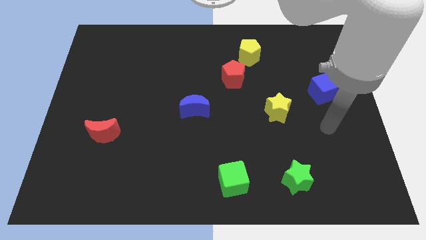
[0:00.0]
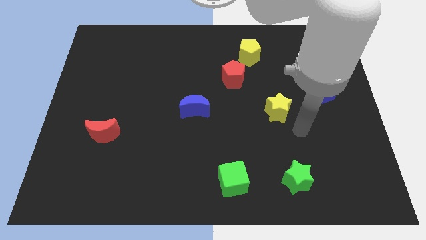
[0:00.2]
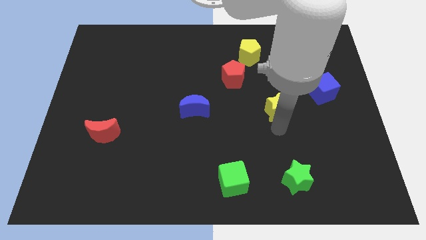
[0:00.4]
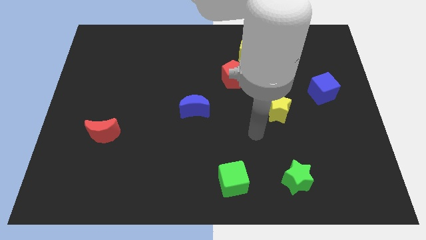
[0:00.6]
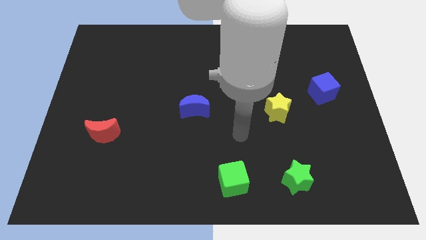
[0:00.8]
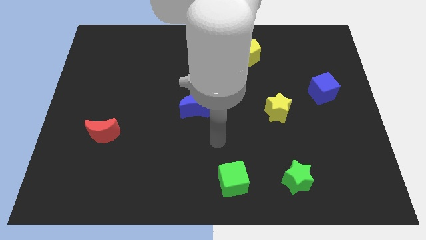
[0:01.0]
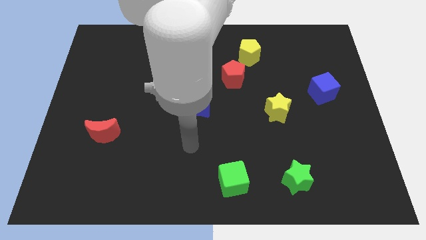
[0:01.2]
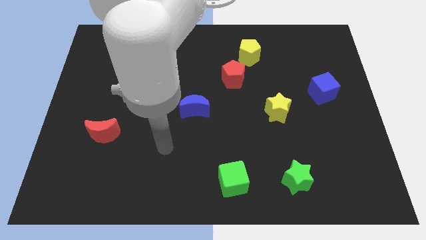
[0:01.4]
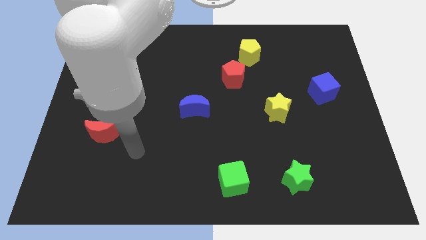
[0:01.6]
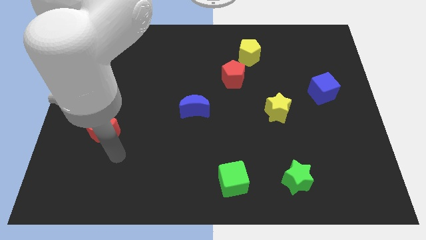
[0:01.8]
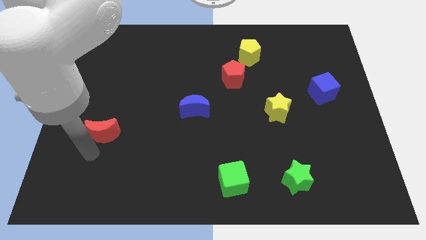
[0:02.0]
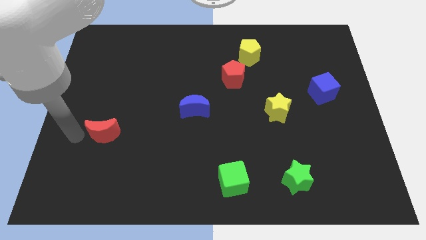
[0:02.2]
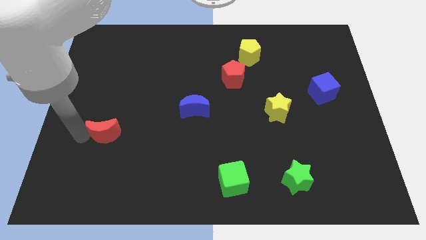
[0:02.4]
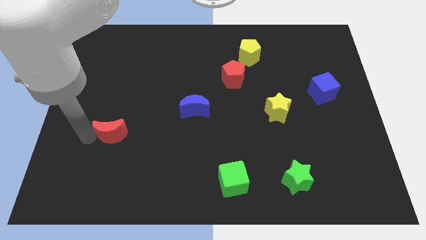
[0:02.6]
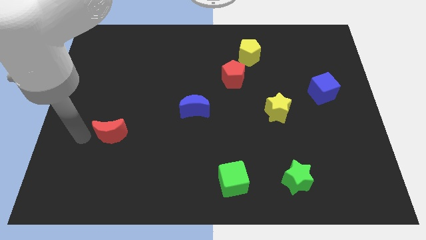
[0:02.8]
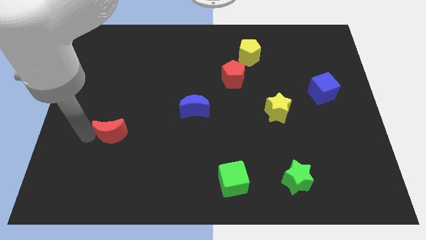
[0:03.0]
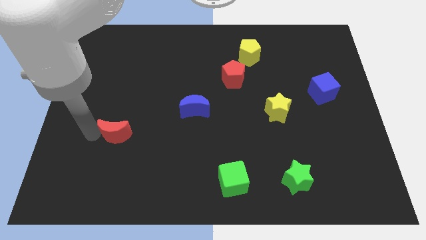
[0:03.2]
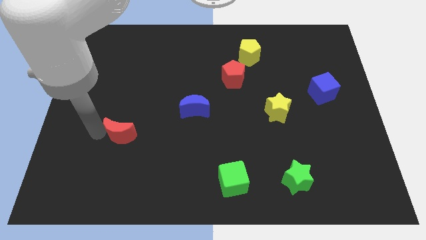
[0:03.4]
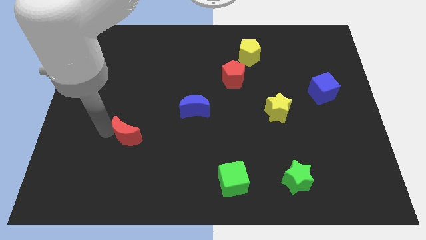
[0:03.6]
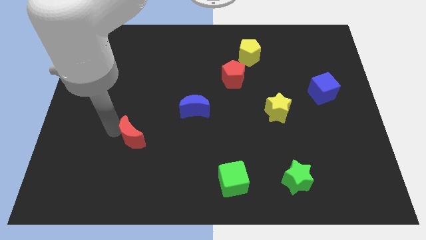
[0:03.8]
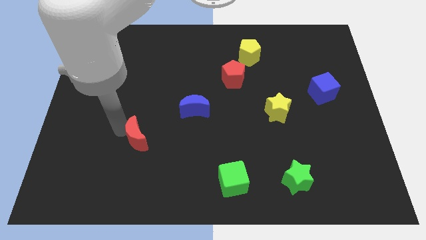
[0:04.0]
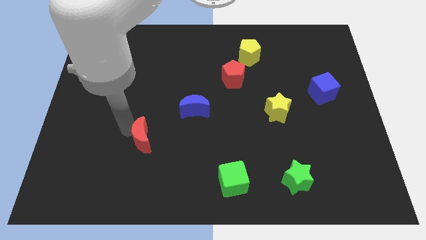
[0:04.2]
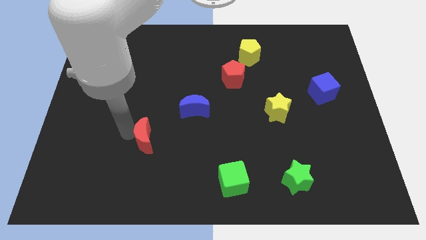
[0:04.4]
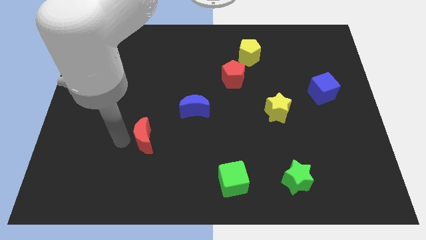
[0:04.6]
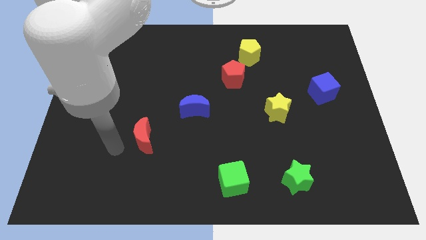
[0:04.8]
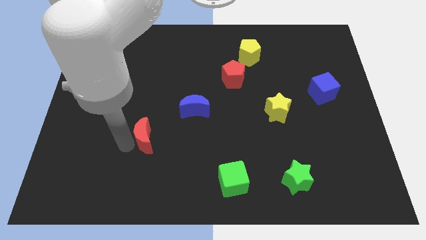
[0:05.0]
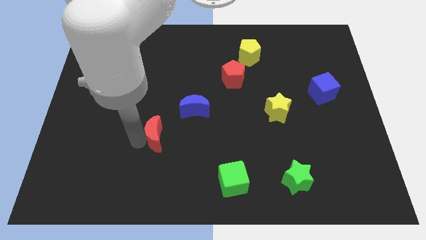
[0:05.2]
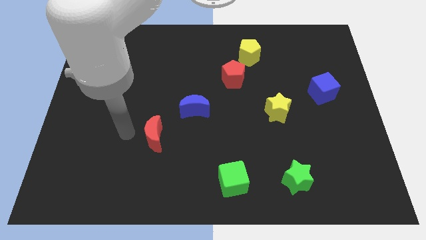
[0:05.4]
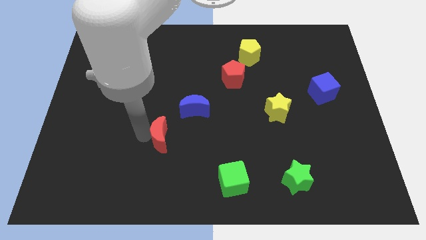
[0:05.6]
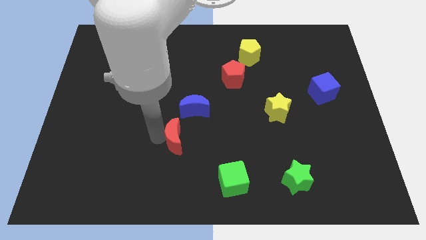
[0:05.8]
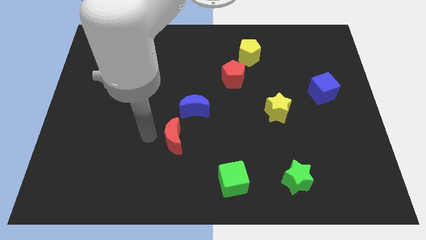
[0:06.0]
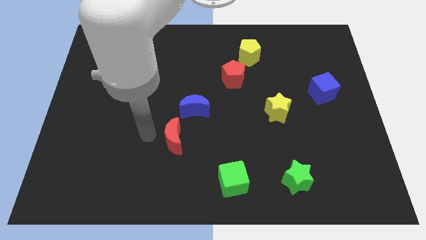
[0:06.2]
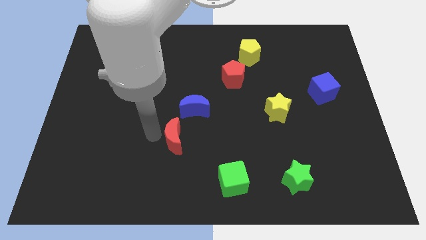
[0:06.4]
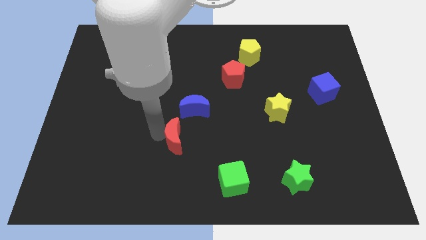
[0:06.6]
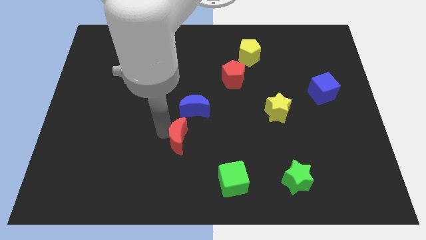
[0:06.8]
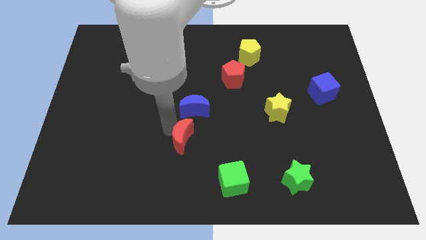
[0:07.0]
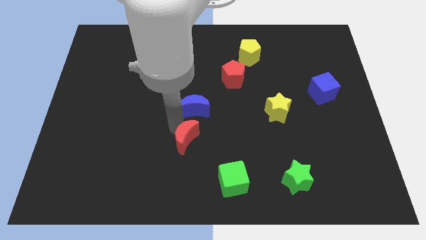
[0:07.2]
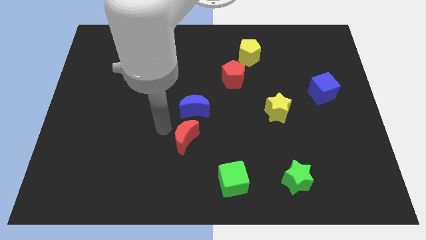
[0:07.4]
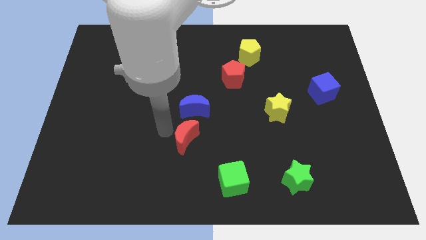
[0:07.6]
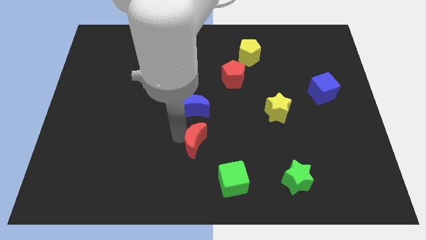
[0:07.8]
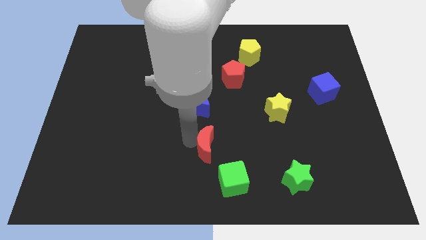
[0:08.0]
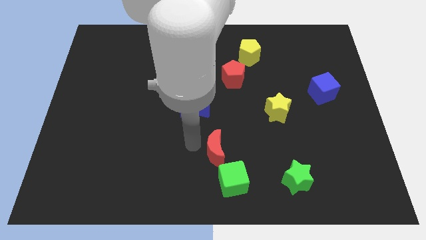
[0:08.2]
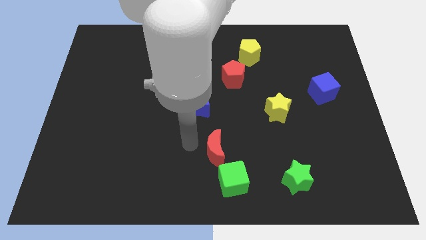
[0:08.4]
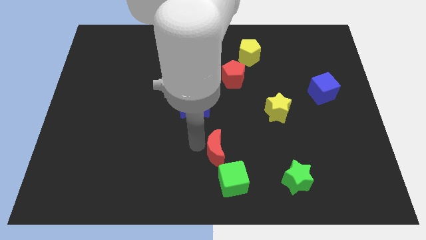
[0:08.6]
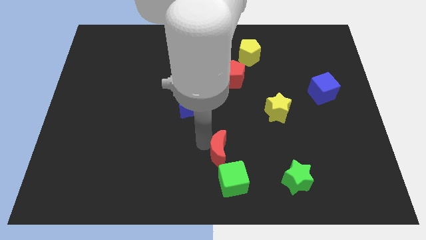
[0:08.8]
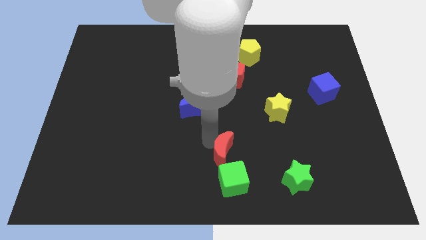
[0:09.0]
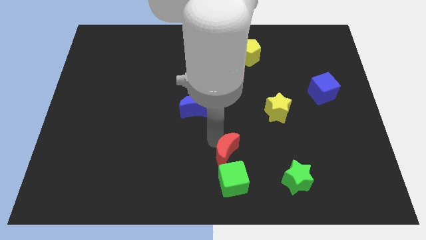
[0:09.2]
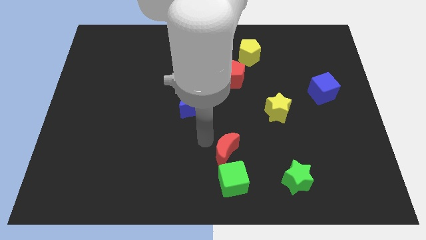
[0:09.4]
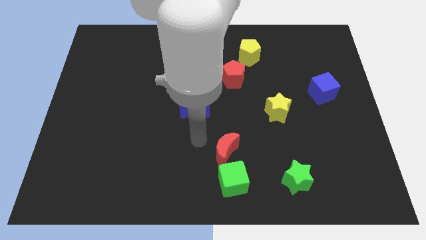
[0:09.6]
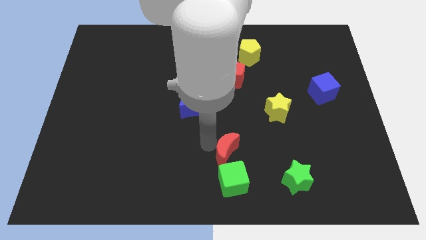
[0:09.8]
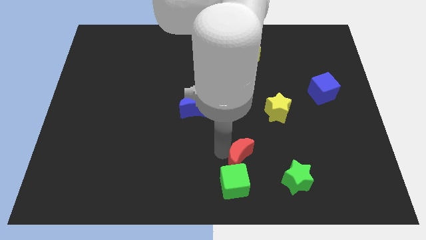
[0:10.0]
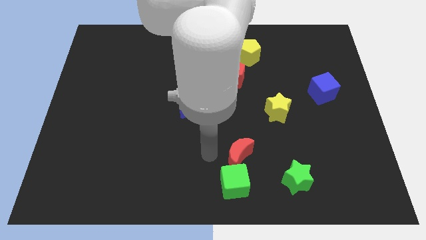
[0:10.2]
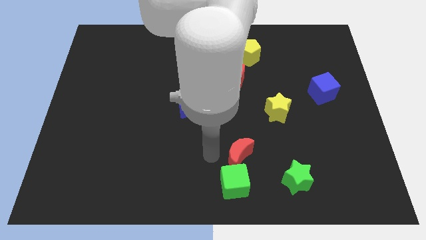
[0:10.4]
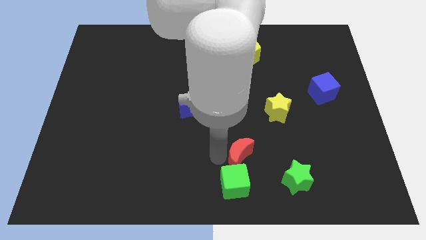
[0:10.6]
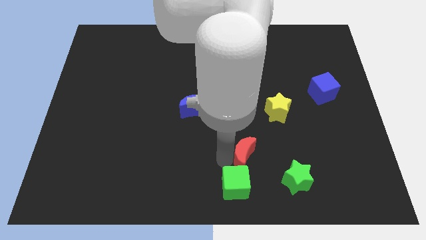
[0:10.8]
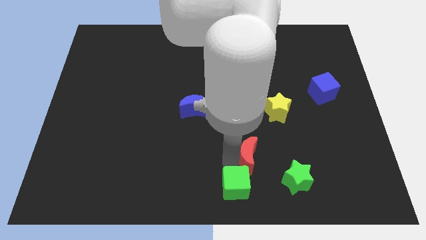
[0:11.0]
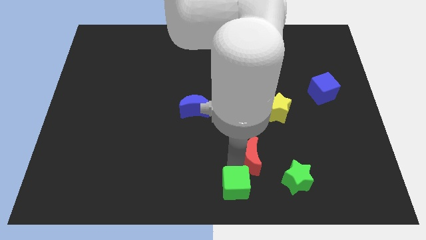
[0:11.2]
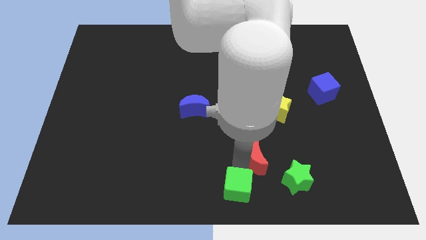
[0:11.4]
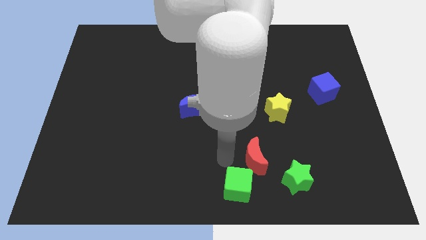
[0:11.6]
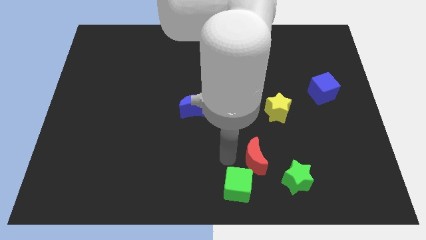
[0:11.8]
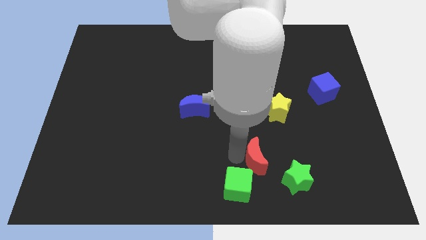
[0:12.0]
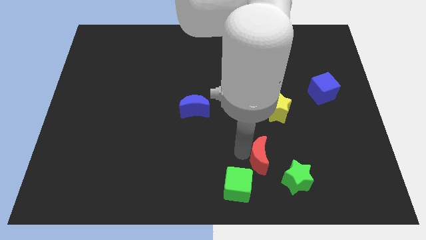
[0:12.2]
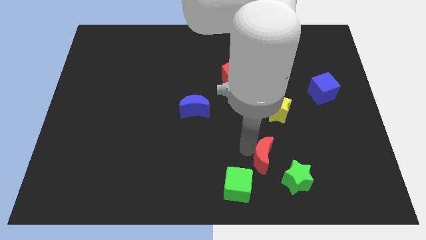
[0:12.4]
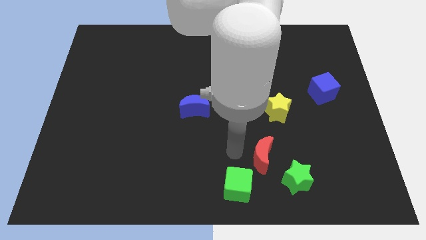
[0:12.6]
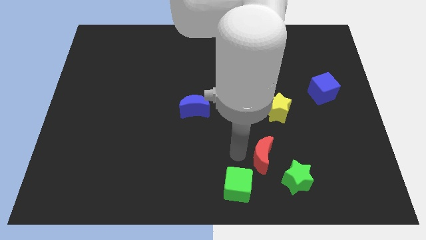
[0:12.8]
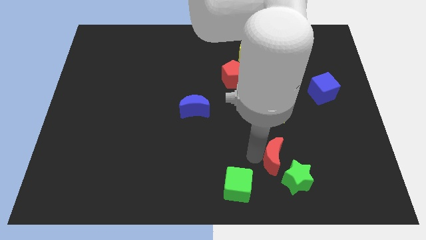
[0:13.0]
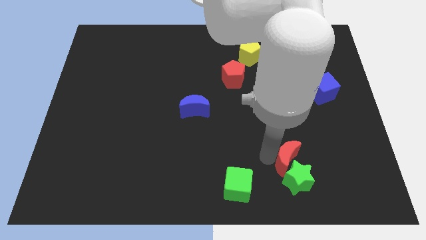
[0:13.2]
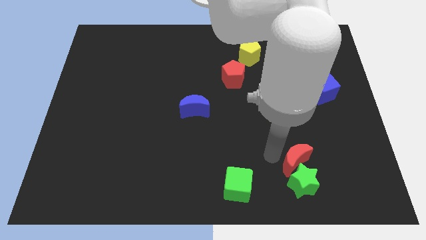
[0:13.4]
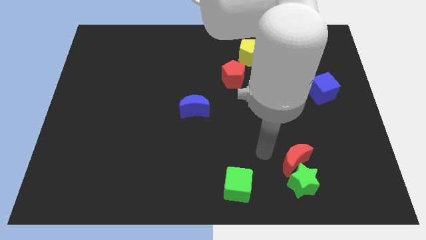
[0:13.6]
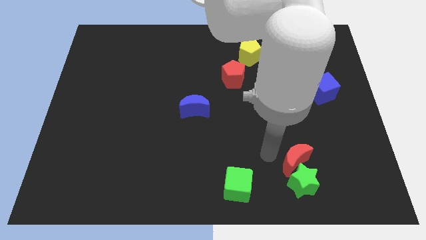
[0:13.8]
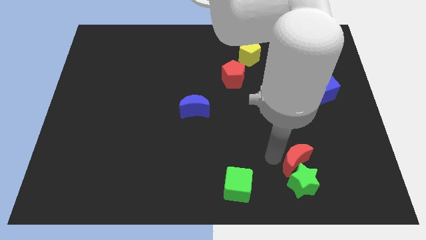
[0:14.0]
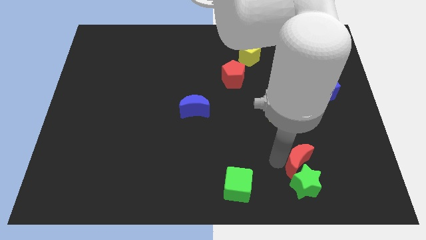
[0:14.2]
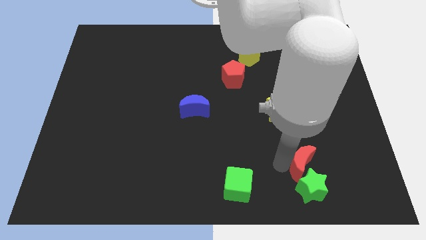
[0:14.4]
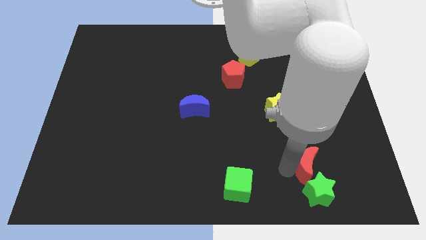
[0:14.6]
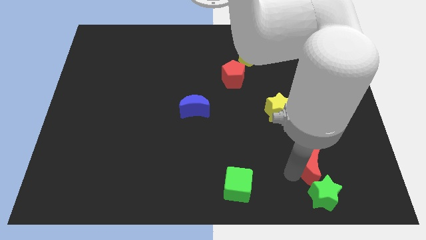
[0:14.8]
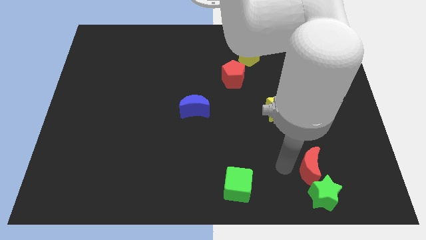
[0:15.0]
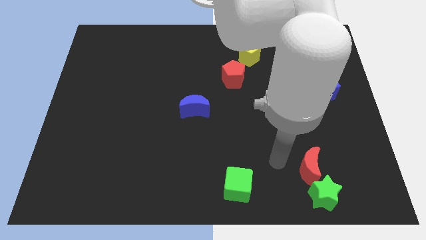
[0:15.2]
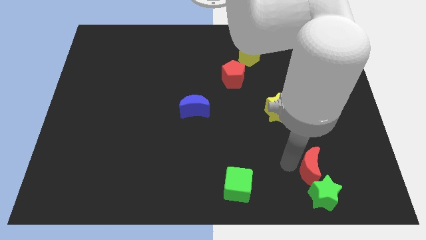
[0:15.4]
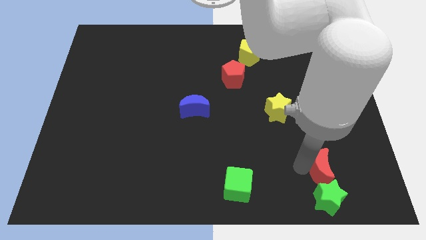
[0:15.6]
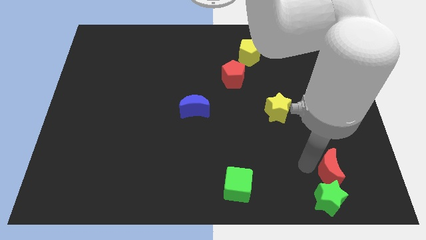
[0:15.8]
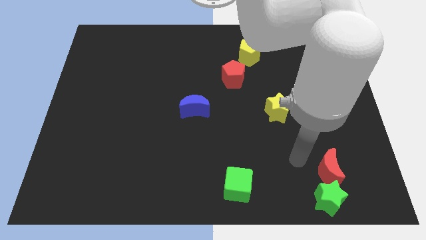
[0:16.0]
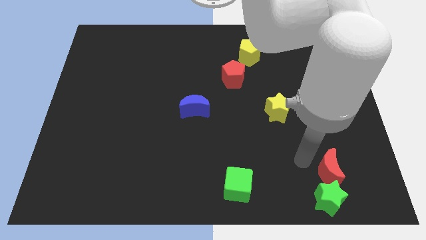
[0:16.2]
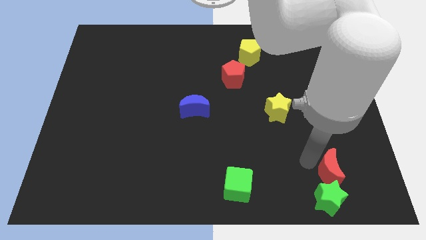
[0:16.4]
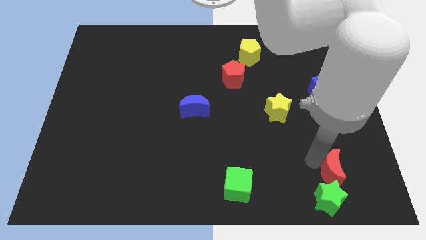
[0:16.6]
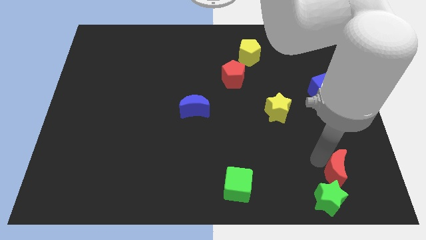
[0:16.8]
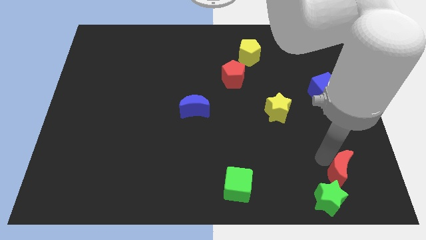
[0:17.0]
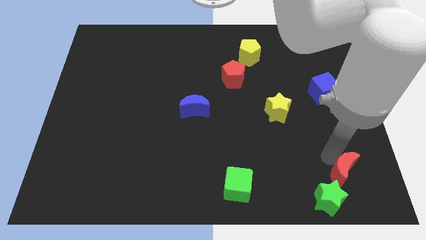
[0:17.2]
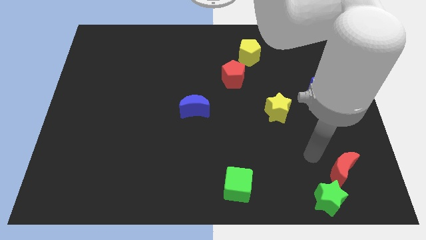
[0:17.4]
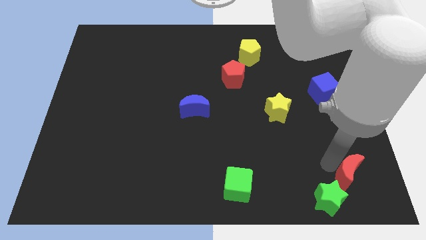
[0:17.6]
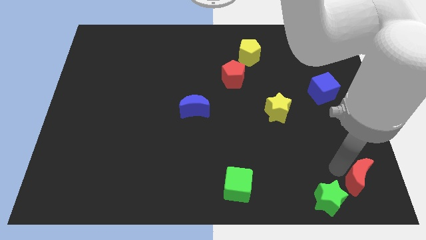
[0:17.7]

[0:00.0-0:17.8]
move the red moon to the bottom right corner
